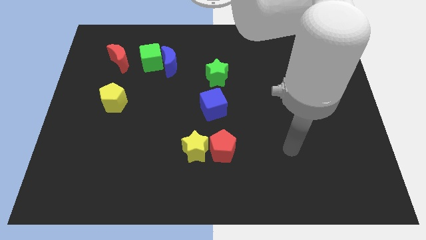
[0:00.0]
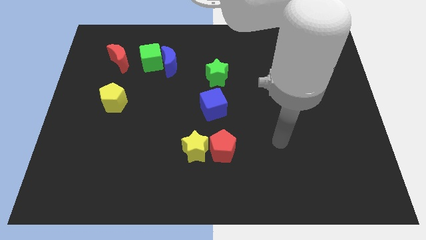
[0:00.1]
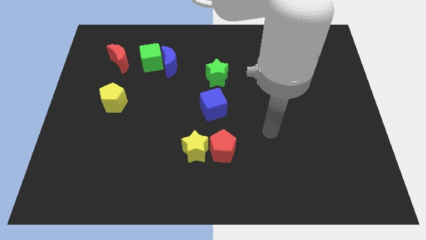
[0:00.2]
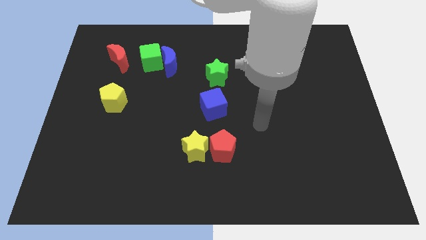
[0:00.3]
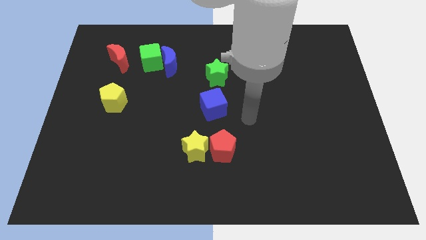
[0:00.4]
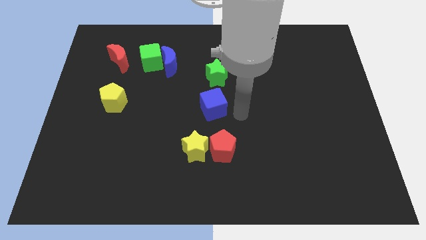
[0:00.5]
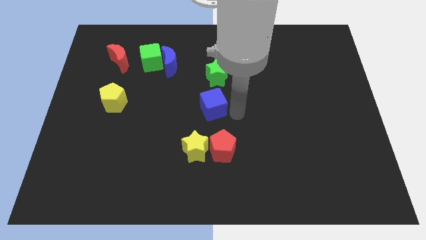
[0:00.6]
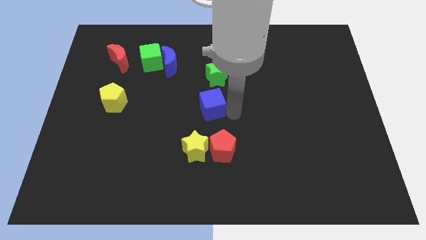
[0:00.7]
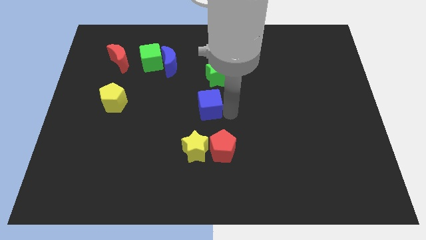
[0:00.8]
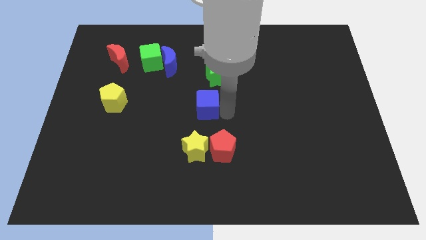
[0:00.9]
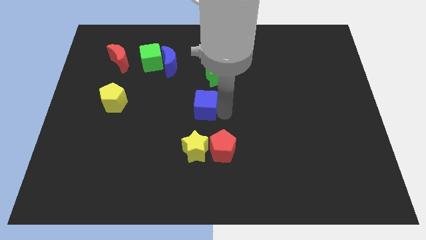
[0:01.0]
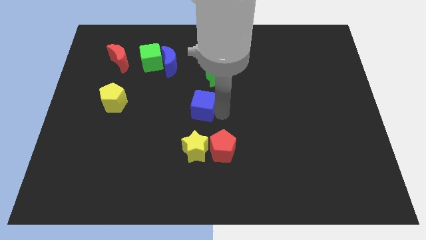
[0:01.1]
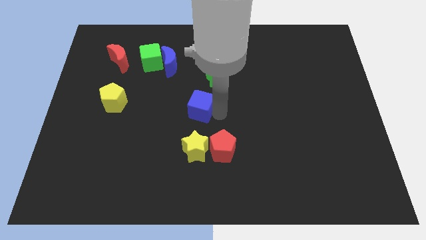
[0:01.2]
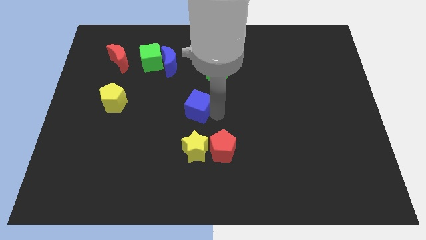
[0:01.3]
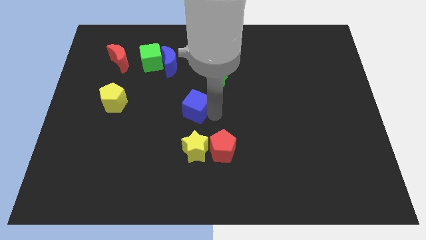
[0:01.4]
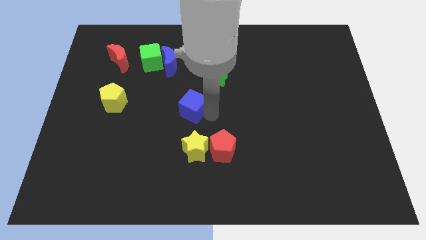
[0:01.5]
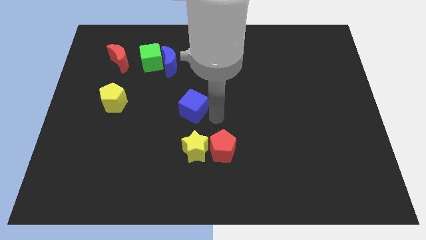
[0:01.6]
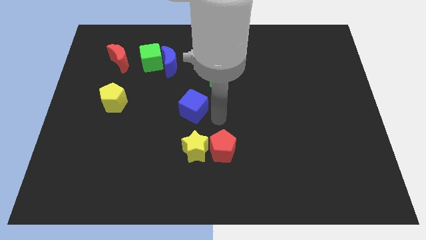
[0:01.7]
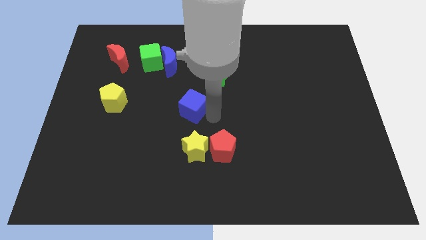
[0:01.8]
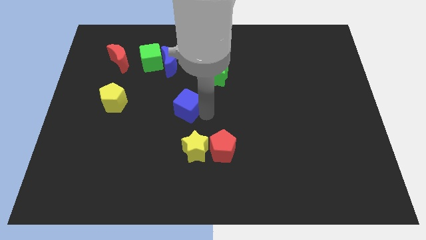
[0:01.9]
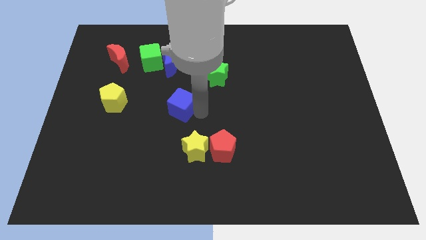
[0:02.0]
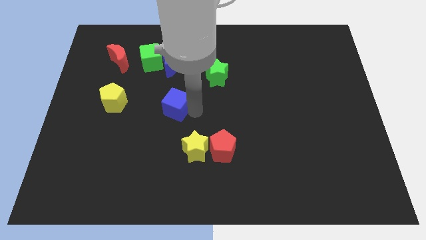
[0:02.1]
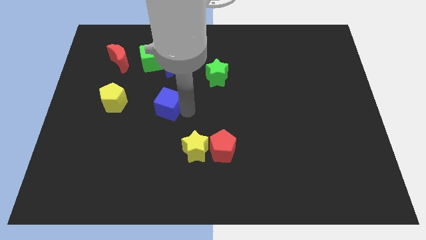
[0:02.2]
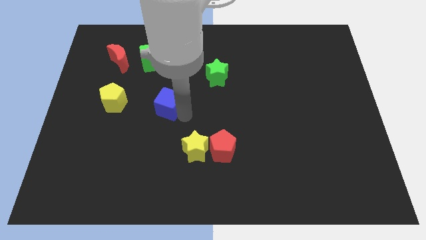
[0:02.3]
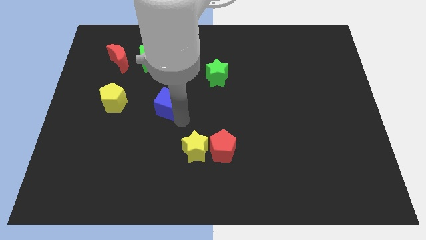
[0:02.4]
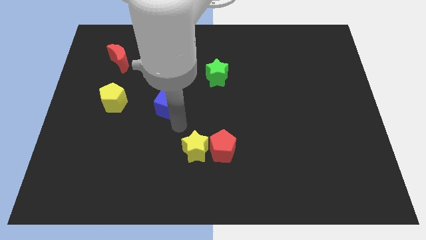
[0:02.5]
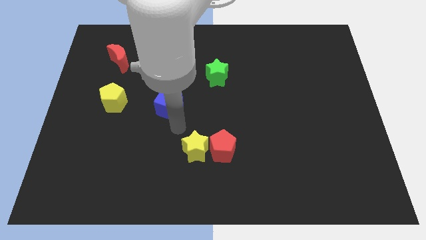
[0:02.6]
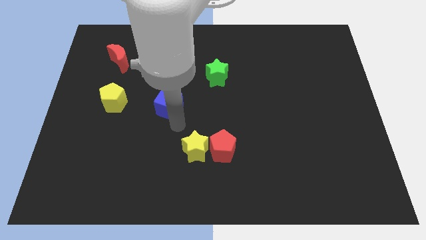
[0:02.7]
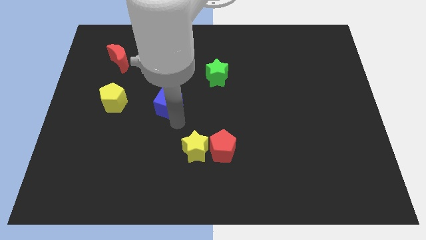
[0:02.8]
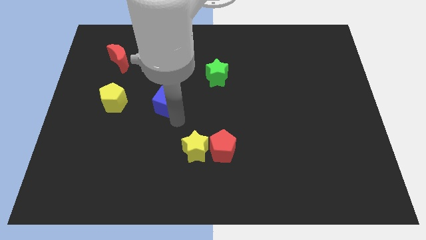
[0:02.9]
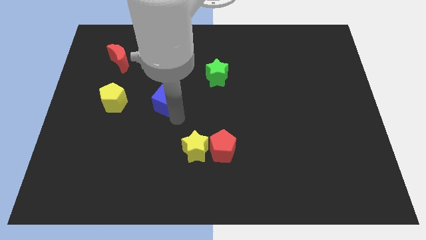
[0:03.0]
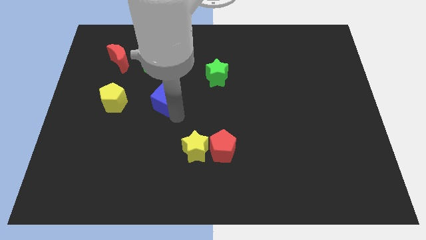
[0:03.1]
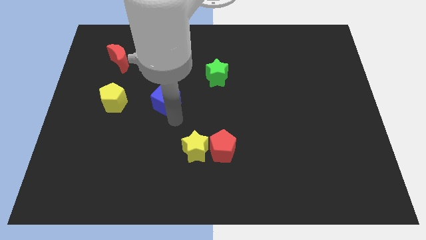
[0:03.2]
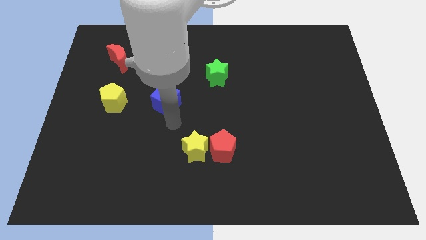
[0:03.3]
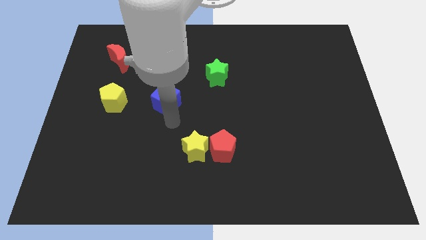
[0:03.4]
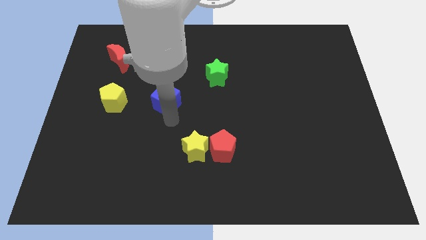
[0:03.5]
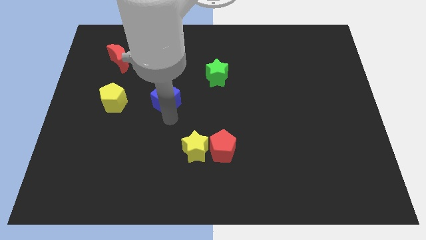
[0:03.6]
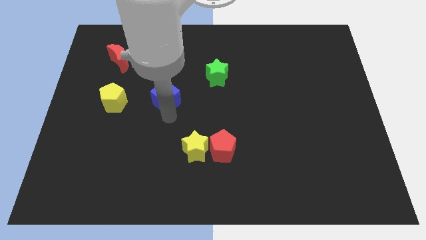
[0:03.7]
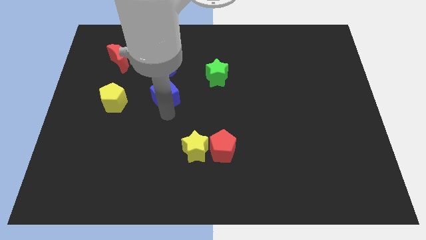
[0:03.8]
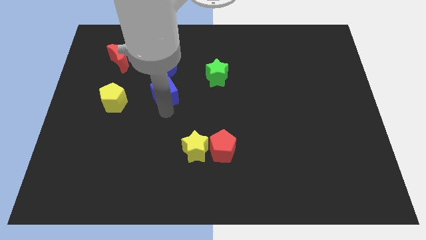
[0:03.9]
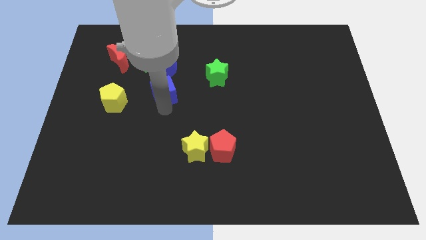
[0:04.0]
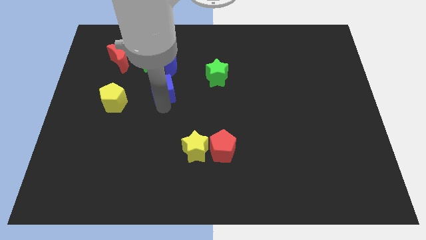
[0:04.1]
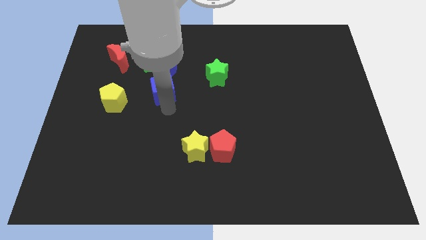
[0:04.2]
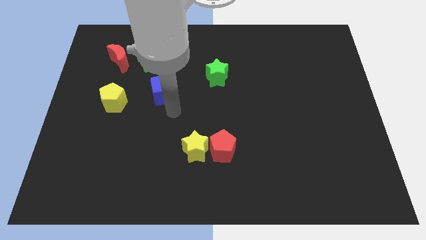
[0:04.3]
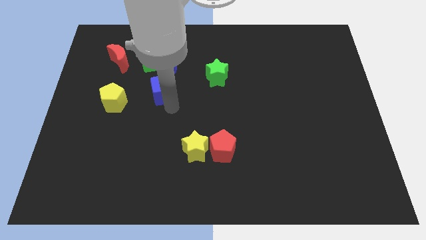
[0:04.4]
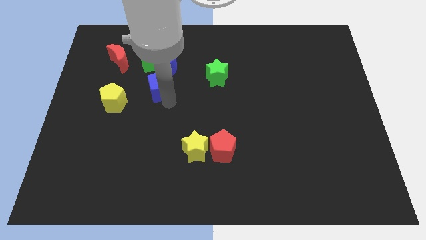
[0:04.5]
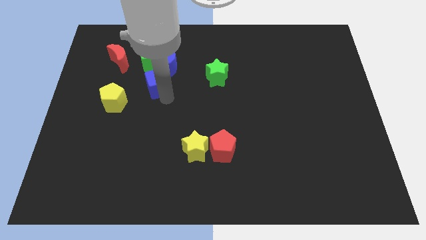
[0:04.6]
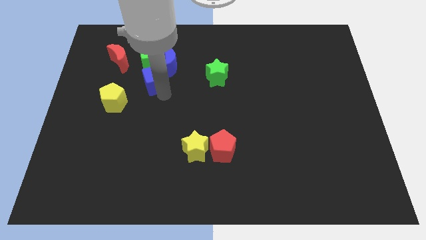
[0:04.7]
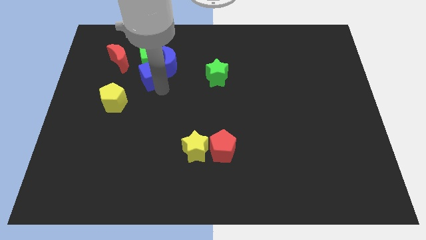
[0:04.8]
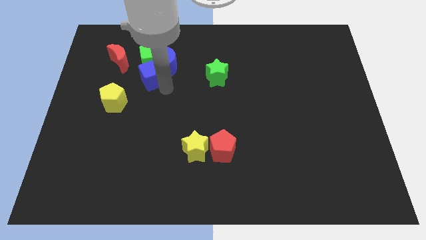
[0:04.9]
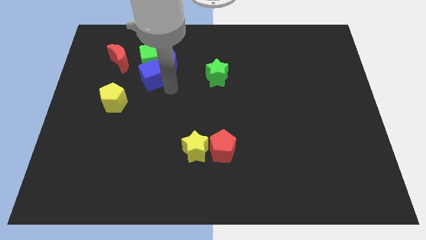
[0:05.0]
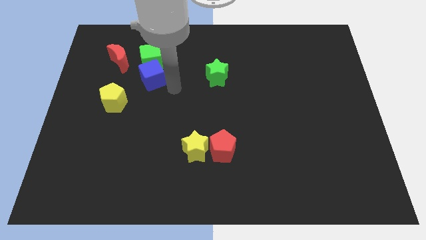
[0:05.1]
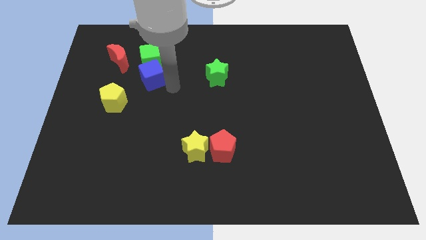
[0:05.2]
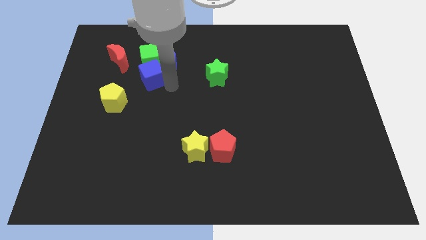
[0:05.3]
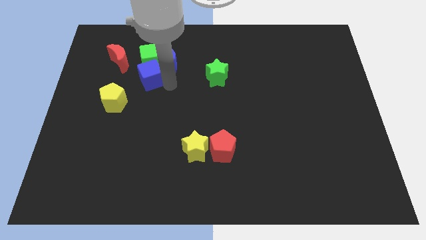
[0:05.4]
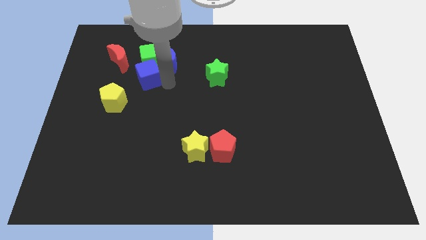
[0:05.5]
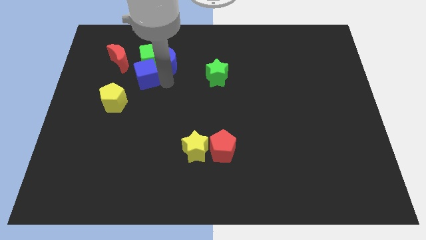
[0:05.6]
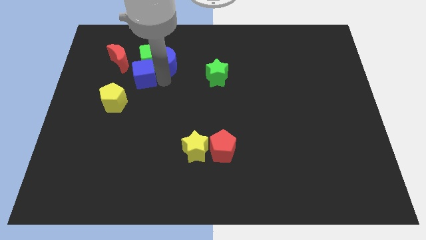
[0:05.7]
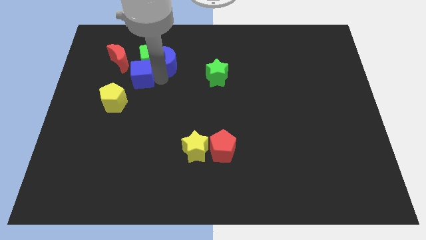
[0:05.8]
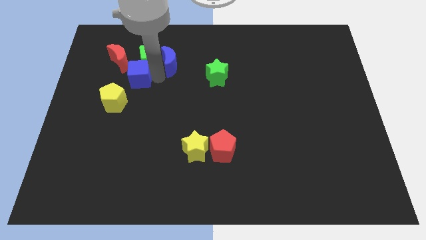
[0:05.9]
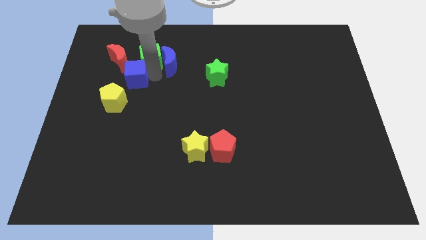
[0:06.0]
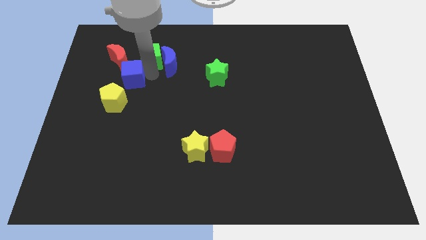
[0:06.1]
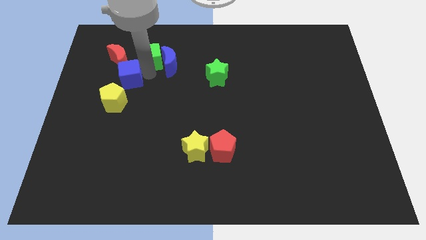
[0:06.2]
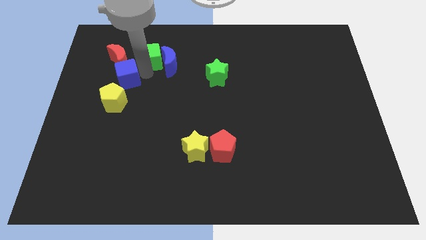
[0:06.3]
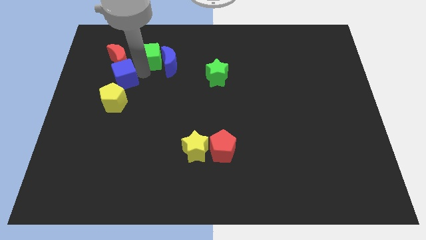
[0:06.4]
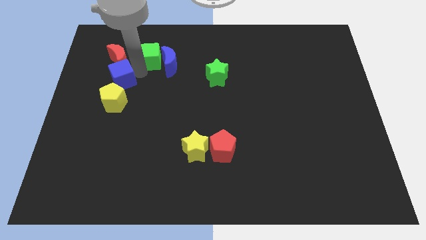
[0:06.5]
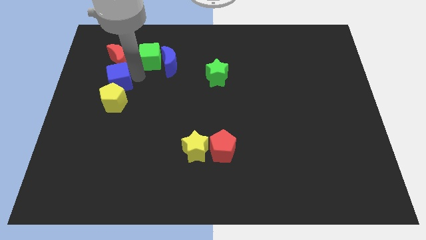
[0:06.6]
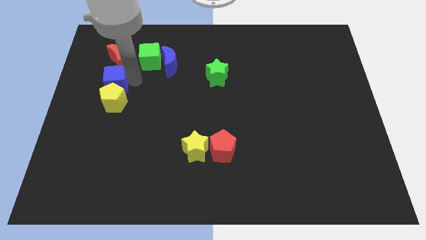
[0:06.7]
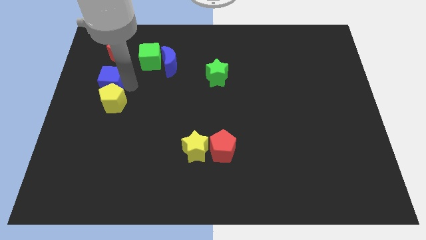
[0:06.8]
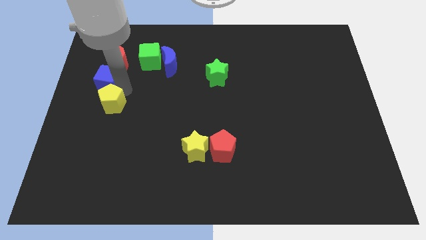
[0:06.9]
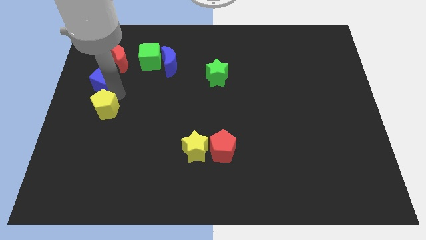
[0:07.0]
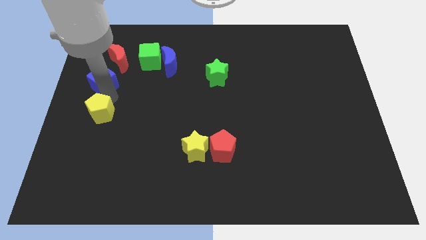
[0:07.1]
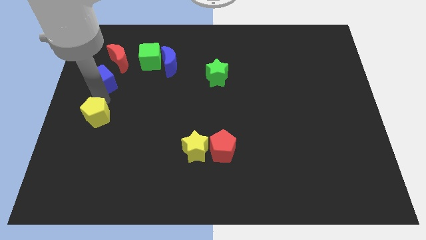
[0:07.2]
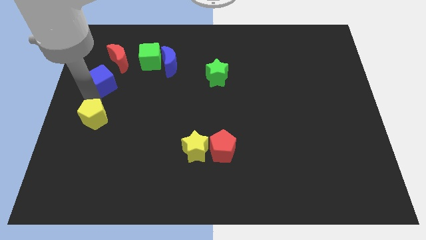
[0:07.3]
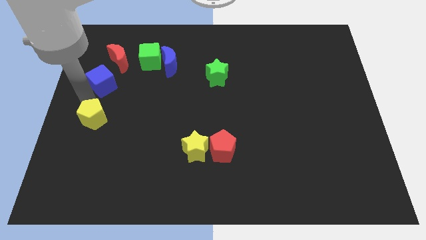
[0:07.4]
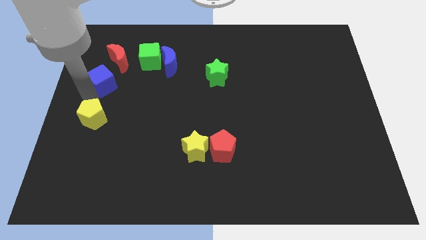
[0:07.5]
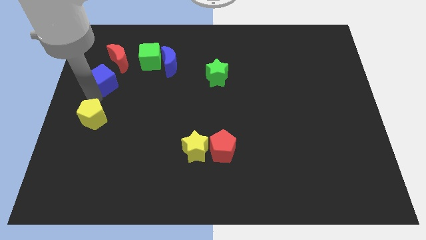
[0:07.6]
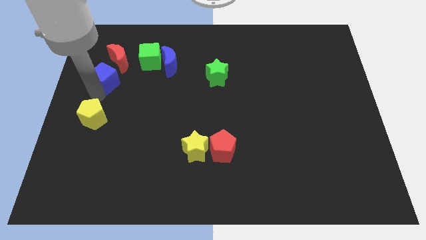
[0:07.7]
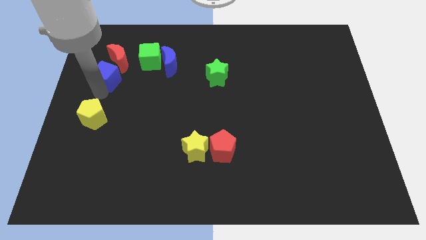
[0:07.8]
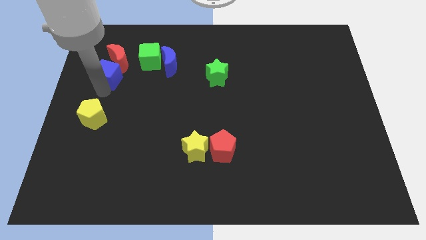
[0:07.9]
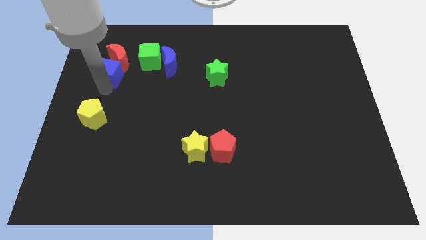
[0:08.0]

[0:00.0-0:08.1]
move the blue cube to the red moon
